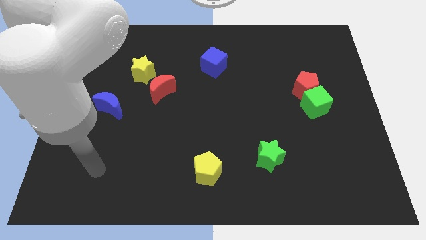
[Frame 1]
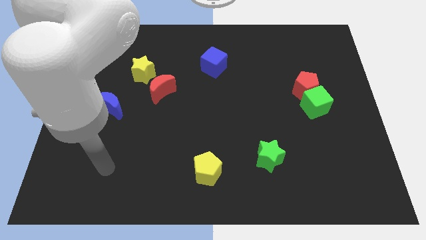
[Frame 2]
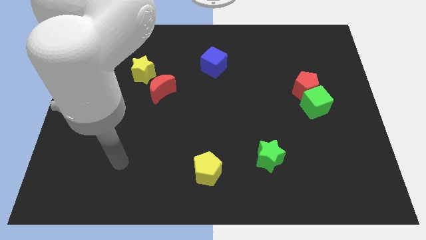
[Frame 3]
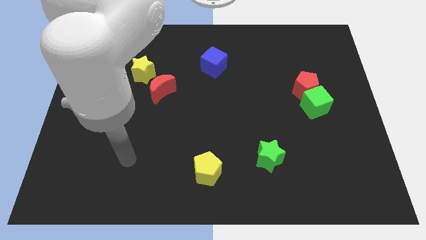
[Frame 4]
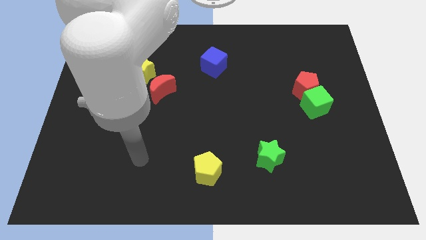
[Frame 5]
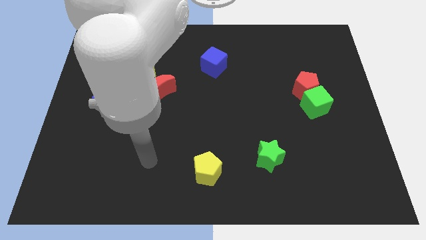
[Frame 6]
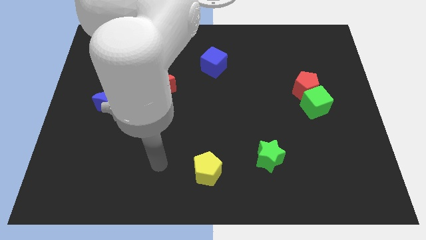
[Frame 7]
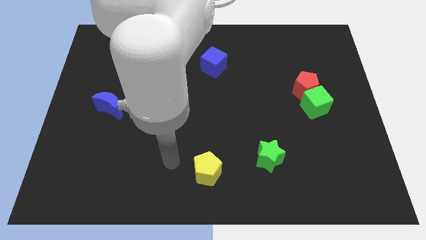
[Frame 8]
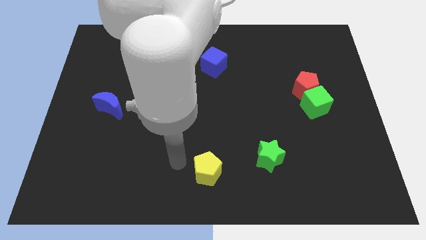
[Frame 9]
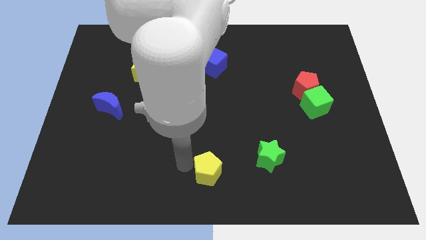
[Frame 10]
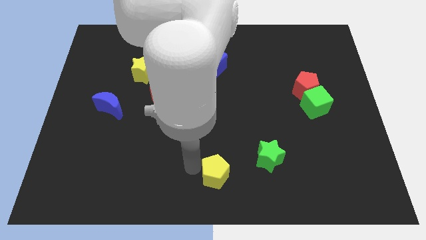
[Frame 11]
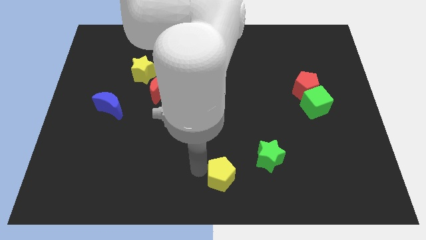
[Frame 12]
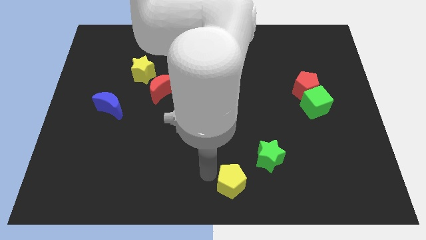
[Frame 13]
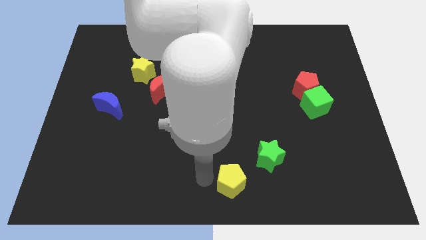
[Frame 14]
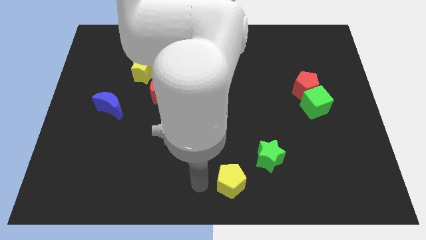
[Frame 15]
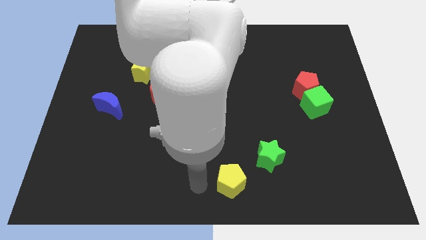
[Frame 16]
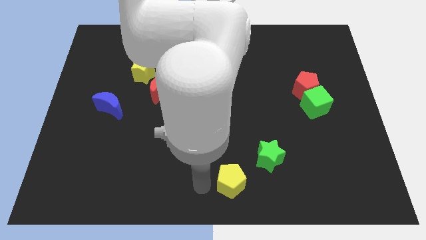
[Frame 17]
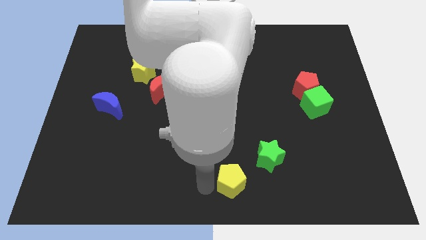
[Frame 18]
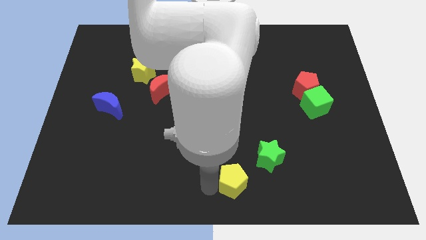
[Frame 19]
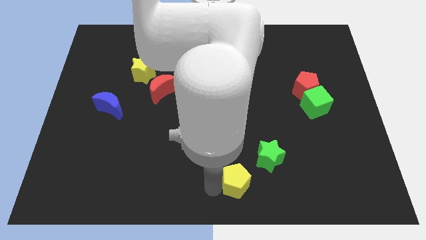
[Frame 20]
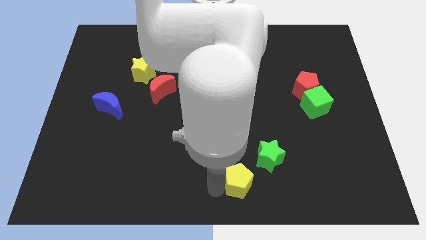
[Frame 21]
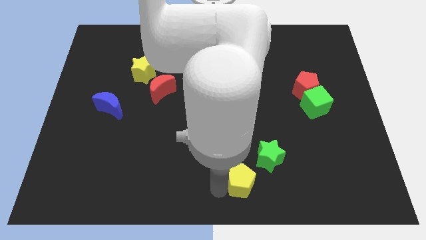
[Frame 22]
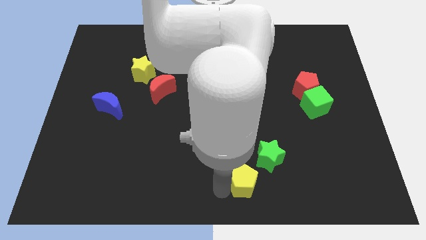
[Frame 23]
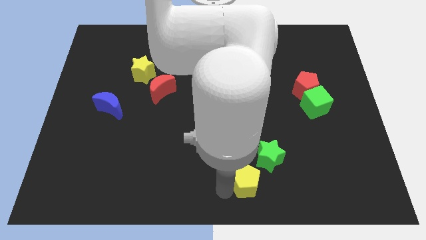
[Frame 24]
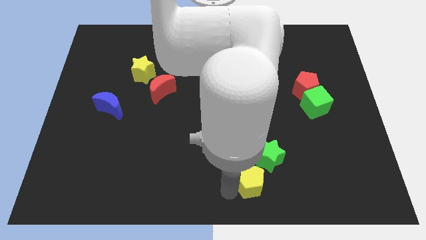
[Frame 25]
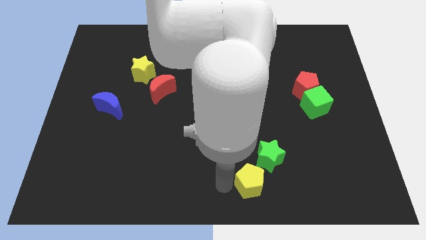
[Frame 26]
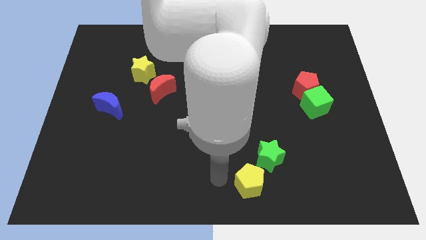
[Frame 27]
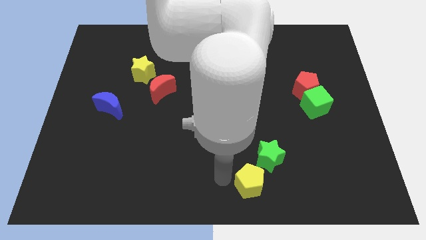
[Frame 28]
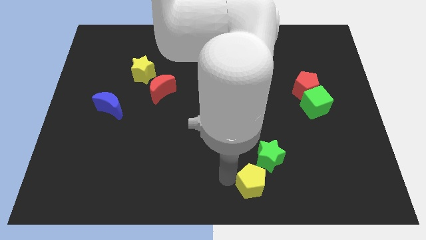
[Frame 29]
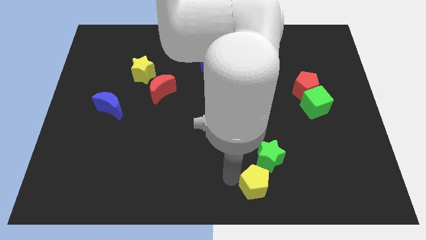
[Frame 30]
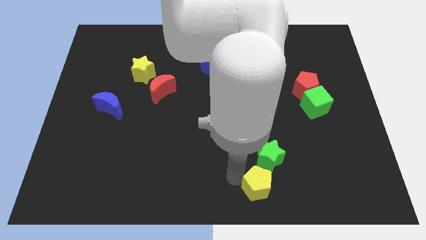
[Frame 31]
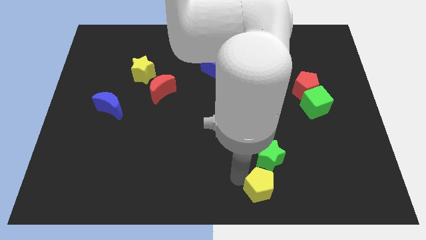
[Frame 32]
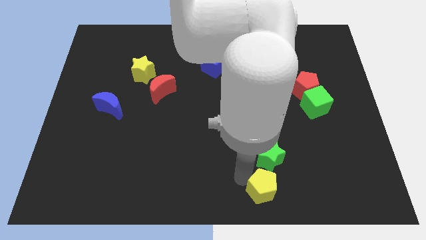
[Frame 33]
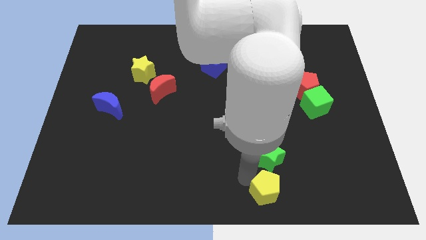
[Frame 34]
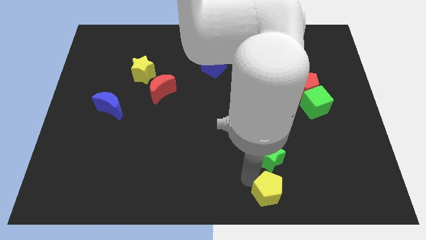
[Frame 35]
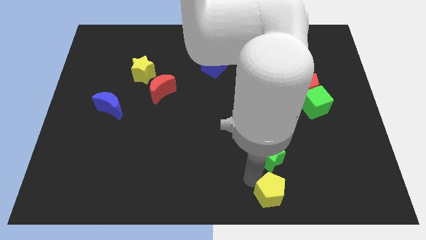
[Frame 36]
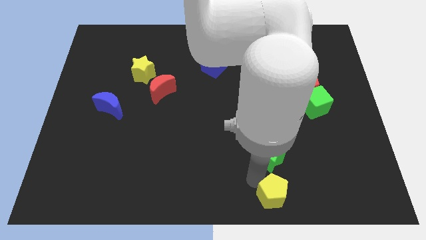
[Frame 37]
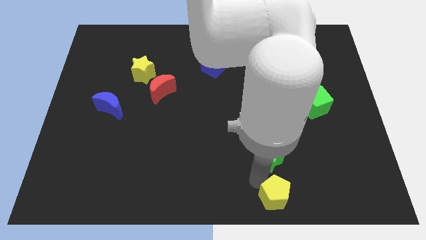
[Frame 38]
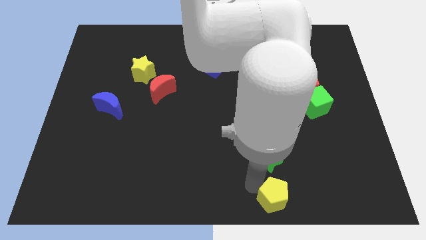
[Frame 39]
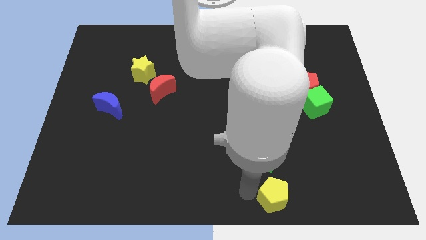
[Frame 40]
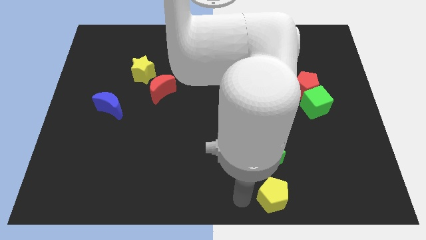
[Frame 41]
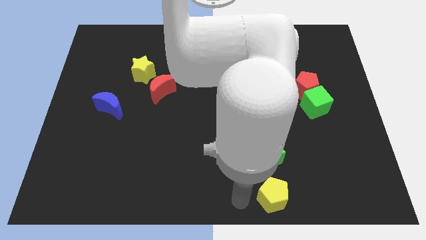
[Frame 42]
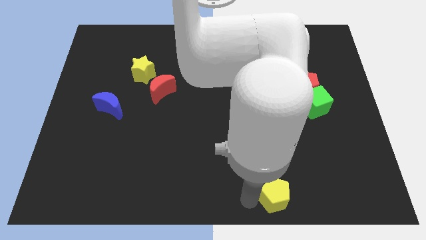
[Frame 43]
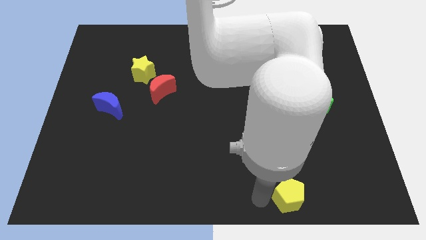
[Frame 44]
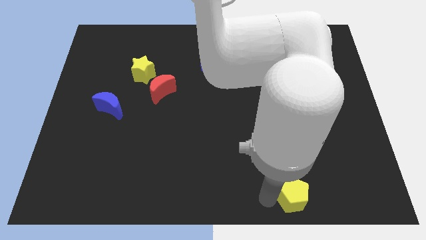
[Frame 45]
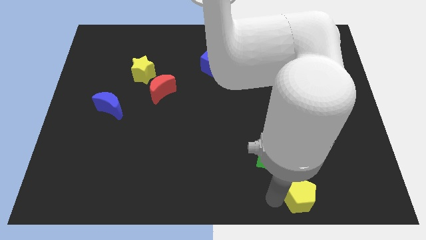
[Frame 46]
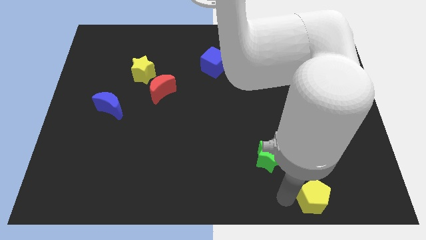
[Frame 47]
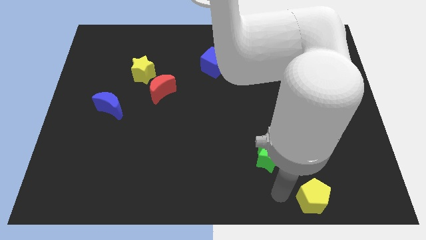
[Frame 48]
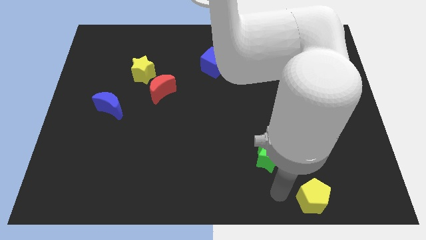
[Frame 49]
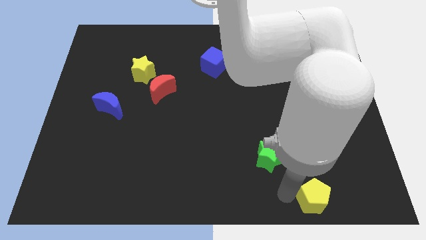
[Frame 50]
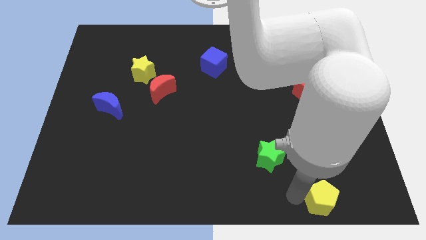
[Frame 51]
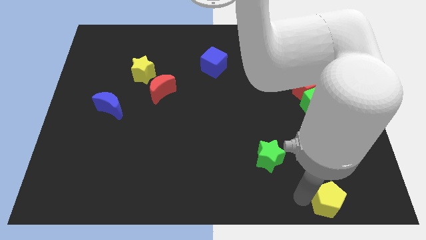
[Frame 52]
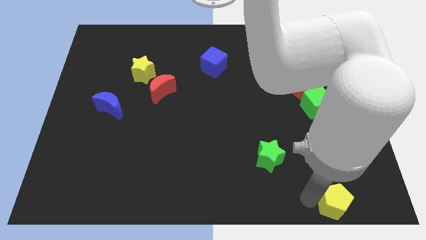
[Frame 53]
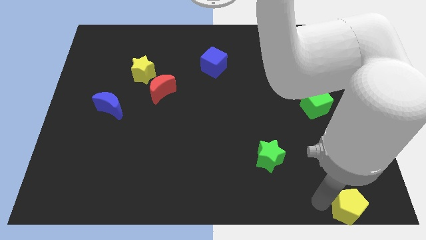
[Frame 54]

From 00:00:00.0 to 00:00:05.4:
push the yellow pentagon to the bottom right of the board

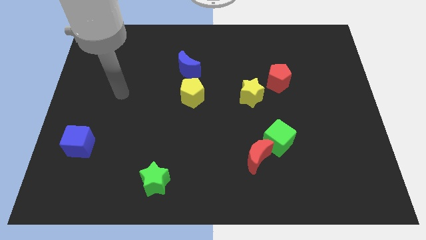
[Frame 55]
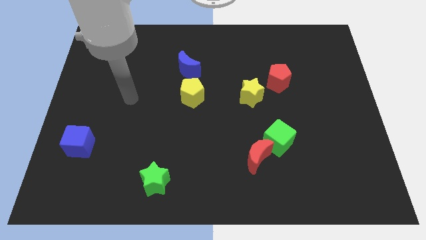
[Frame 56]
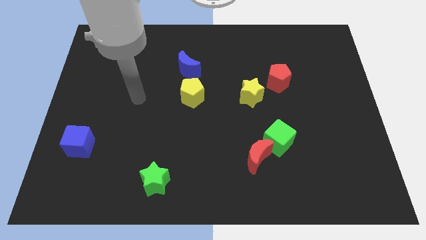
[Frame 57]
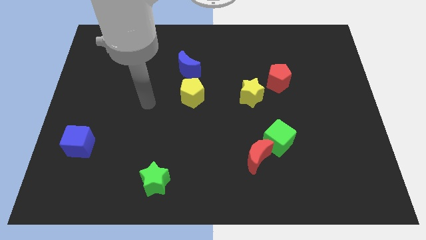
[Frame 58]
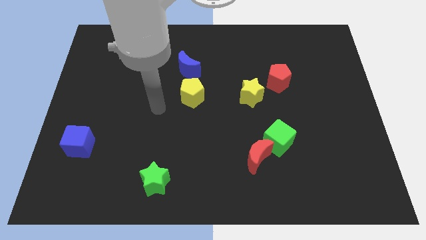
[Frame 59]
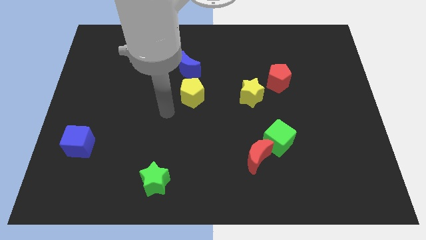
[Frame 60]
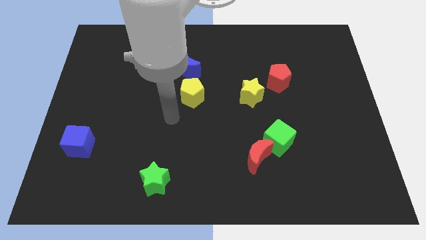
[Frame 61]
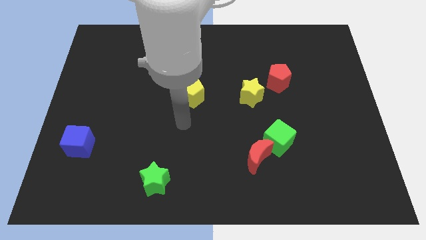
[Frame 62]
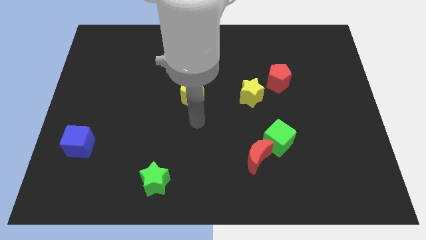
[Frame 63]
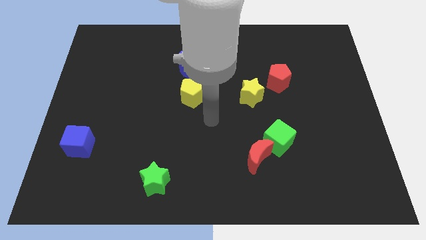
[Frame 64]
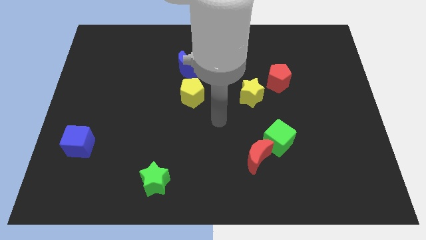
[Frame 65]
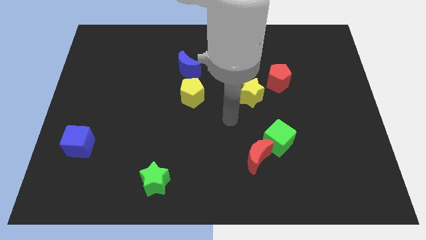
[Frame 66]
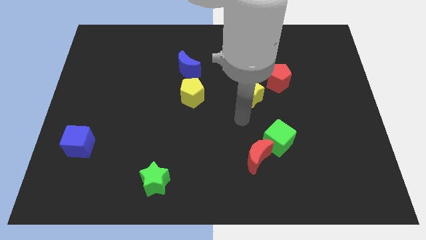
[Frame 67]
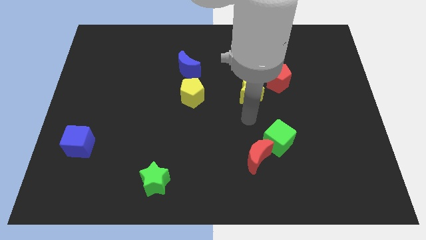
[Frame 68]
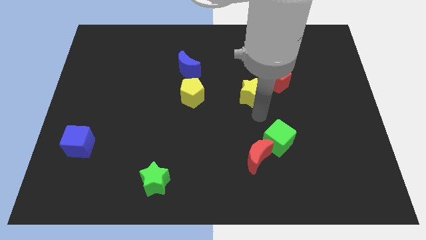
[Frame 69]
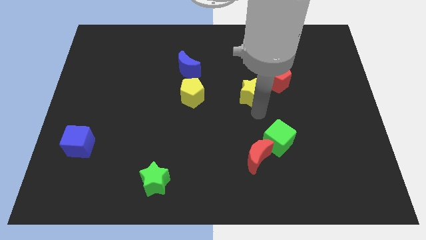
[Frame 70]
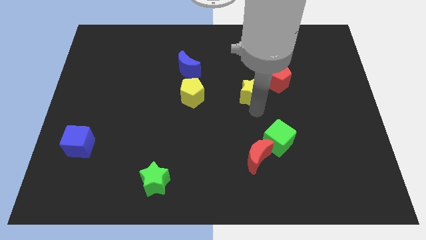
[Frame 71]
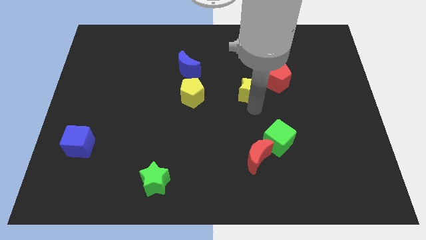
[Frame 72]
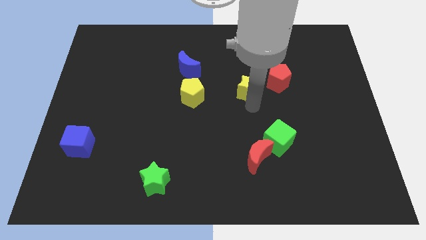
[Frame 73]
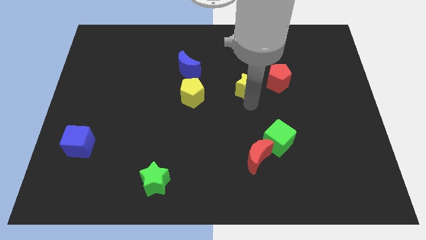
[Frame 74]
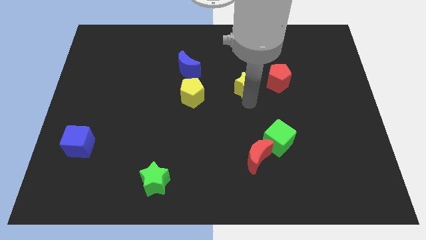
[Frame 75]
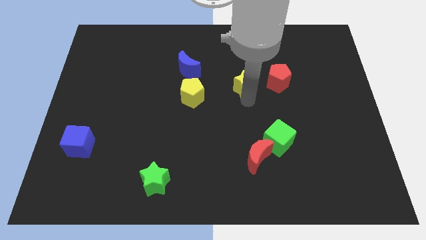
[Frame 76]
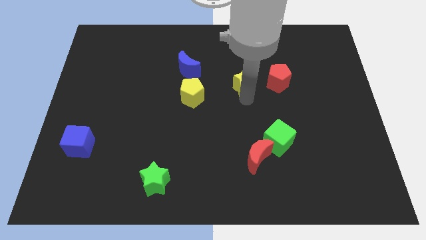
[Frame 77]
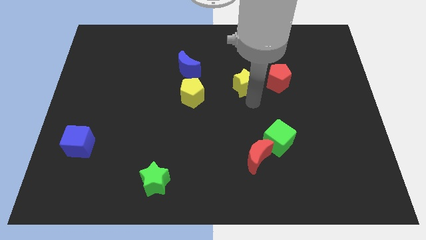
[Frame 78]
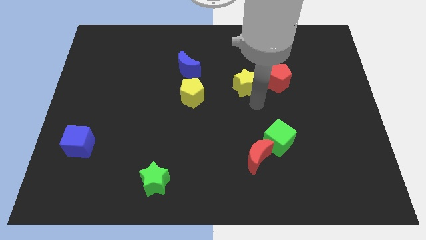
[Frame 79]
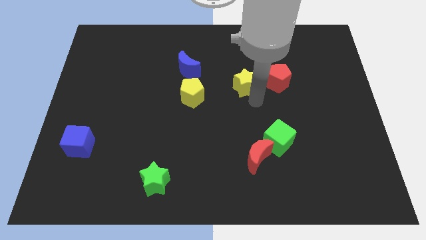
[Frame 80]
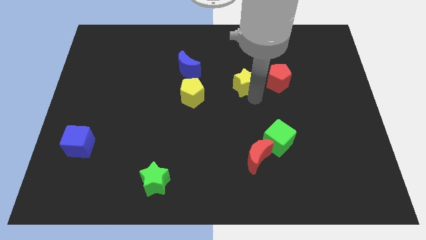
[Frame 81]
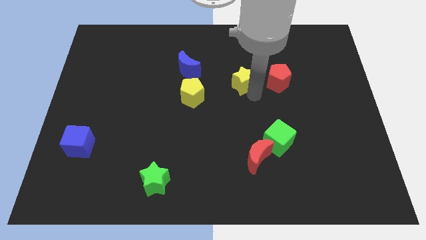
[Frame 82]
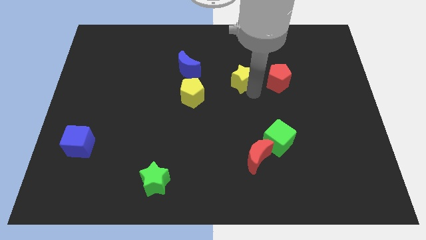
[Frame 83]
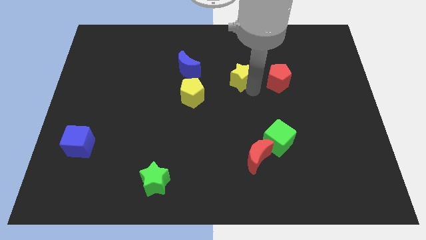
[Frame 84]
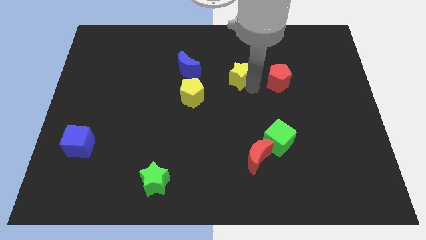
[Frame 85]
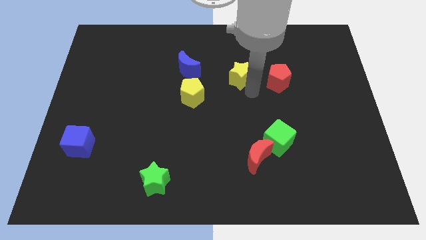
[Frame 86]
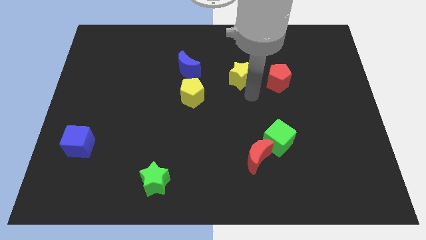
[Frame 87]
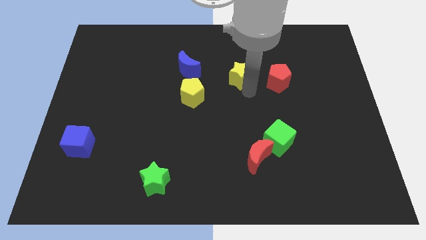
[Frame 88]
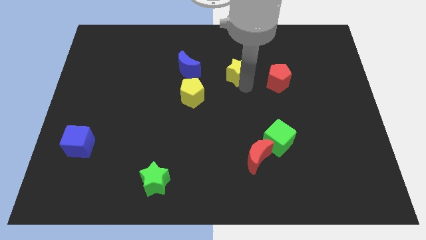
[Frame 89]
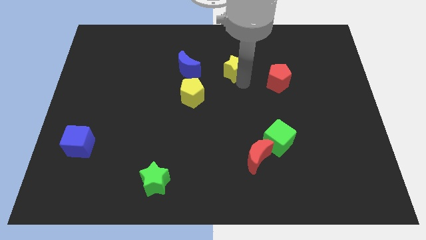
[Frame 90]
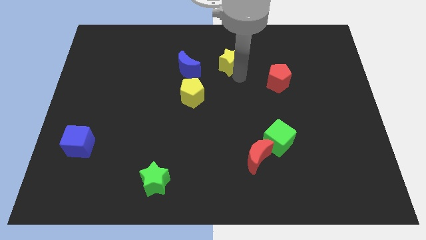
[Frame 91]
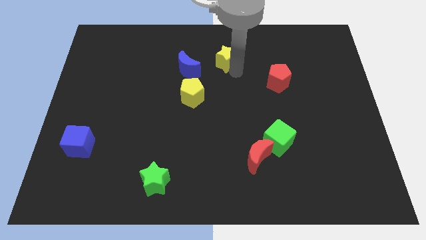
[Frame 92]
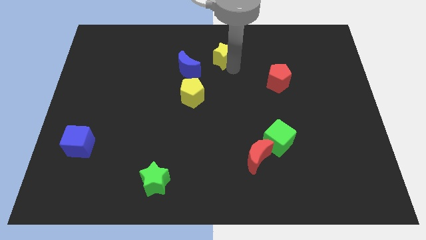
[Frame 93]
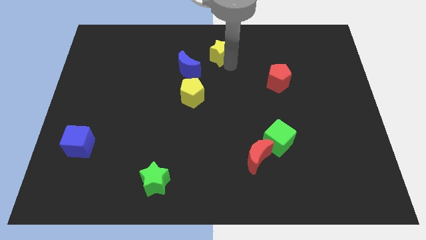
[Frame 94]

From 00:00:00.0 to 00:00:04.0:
put the yellow star to the top side
